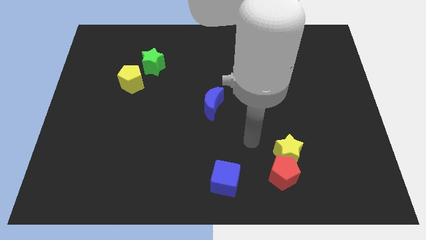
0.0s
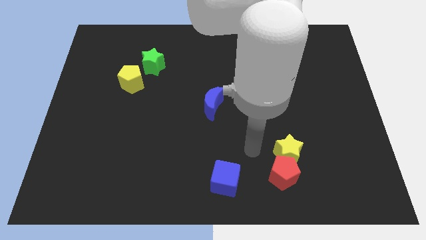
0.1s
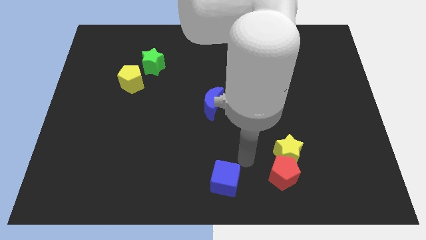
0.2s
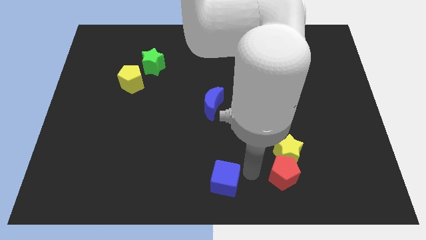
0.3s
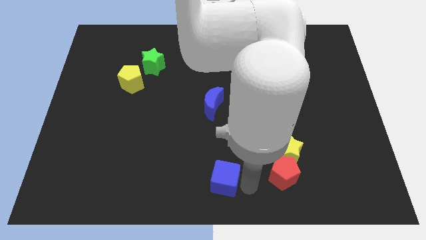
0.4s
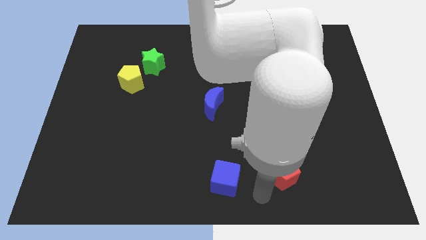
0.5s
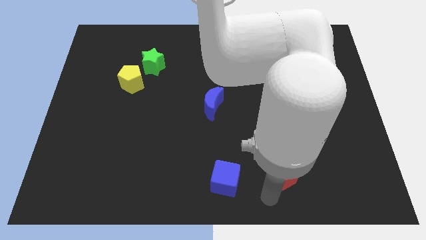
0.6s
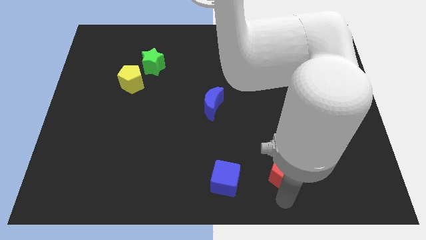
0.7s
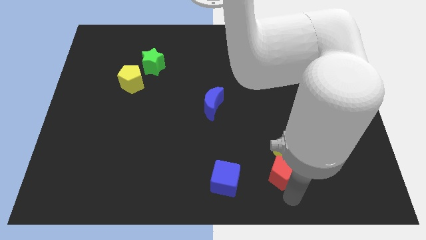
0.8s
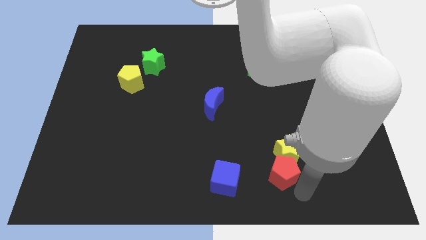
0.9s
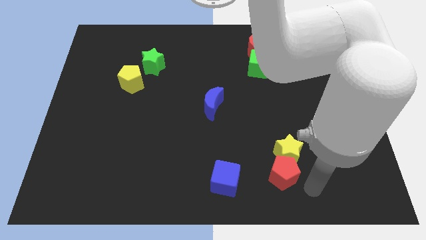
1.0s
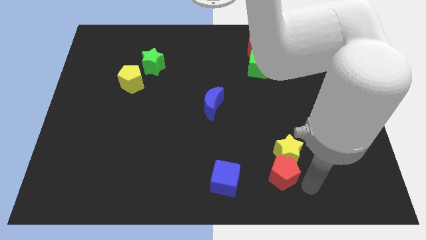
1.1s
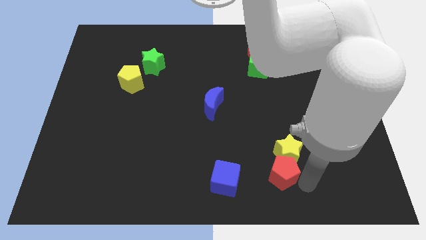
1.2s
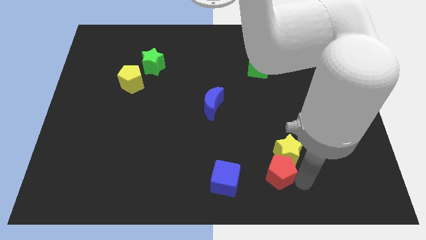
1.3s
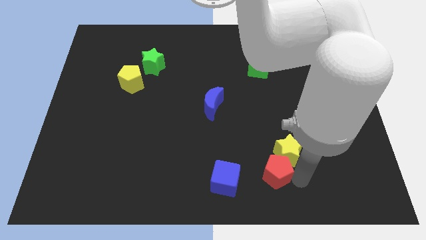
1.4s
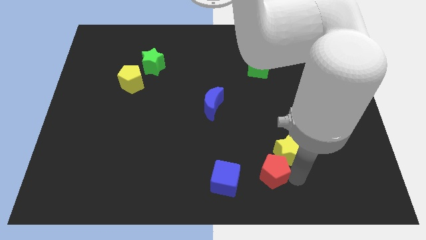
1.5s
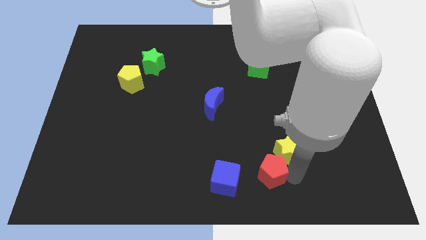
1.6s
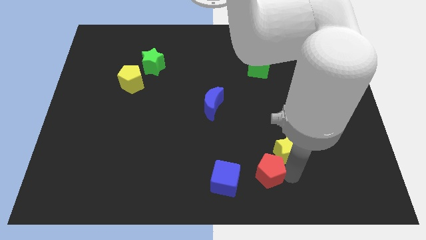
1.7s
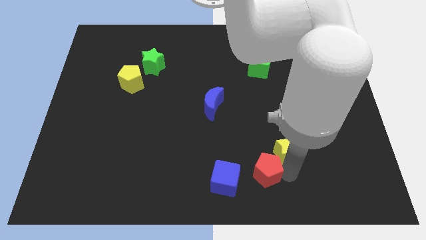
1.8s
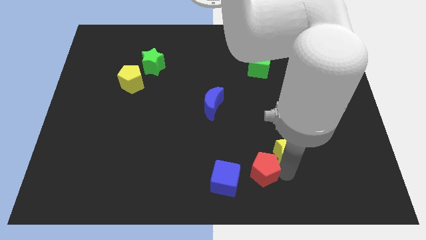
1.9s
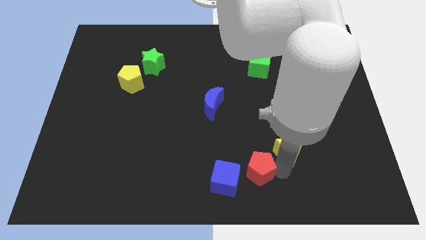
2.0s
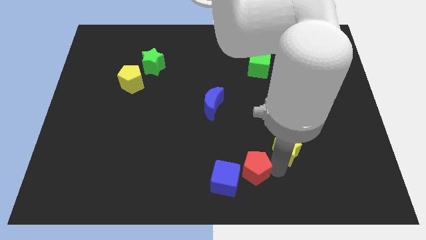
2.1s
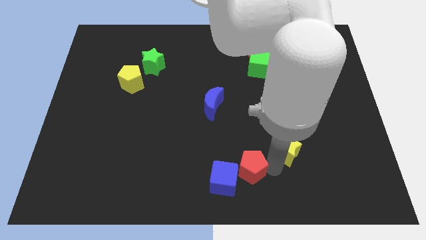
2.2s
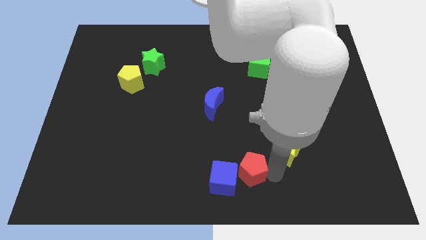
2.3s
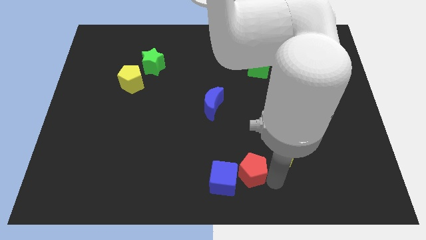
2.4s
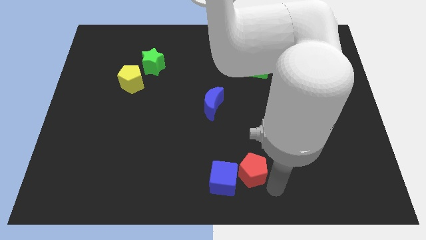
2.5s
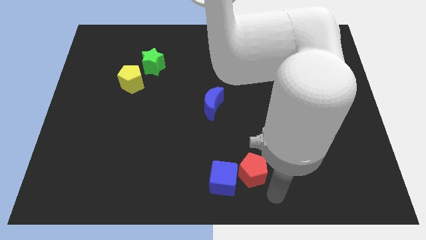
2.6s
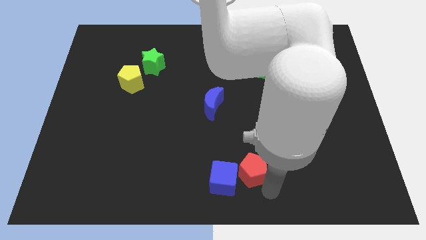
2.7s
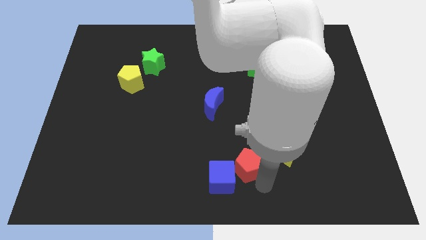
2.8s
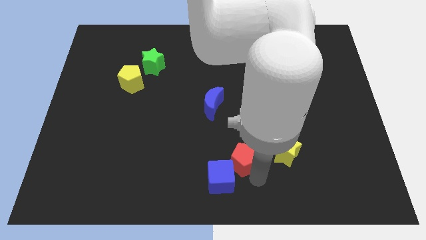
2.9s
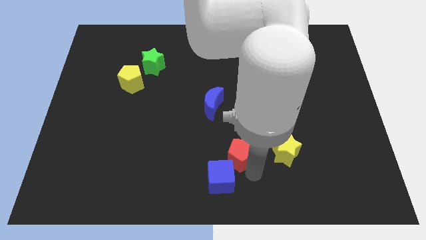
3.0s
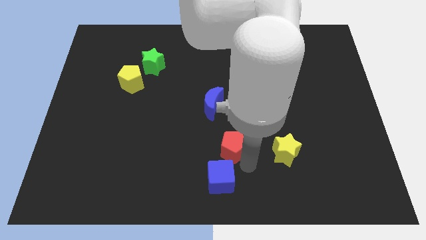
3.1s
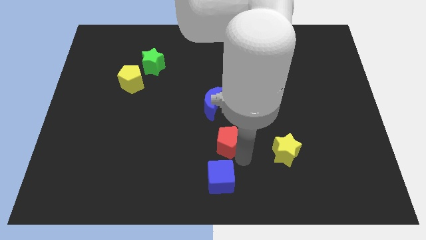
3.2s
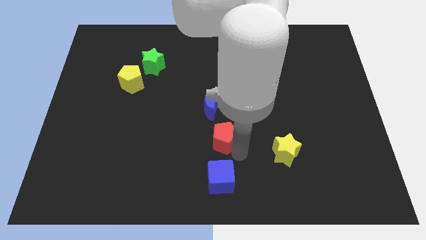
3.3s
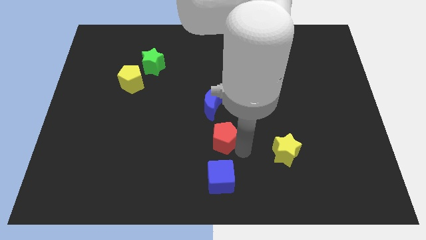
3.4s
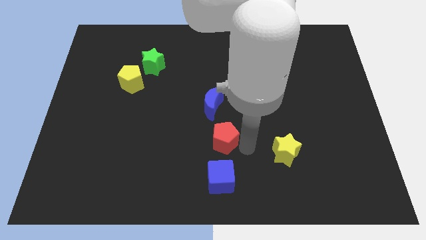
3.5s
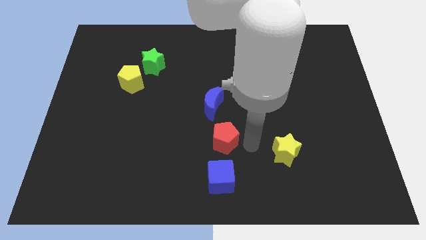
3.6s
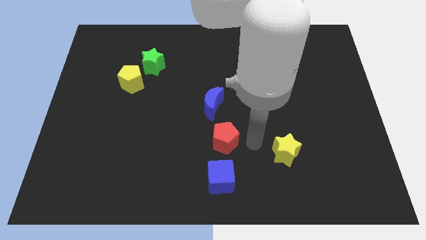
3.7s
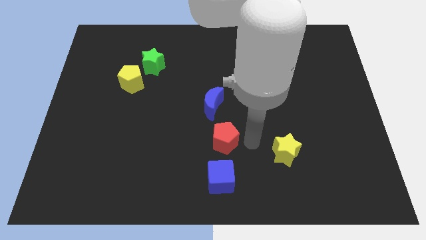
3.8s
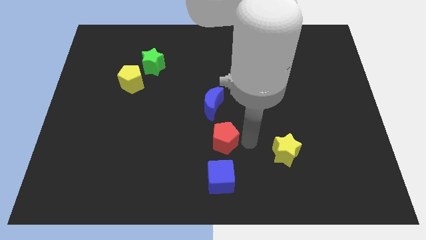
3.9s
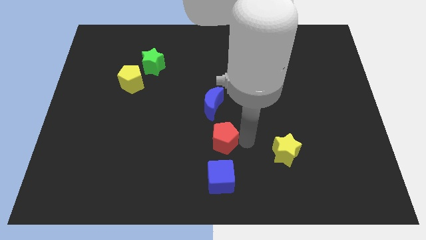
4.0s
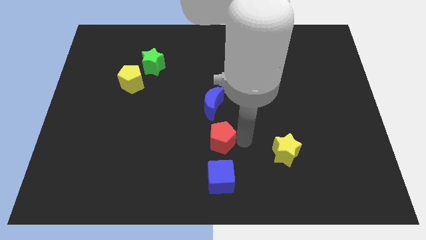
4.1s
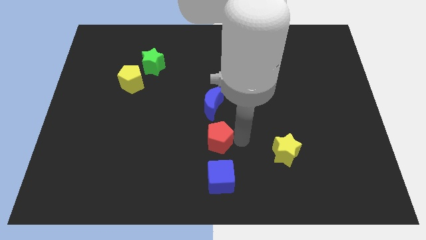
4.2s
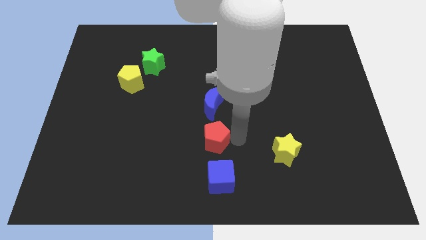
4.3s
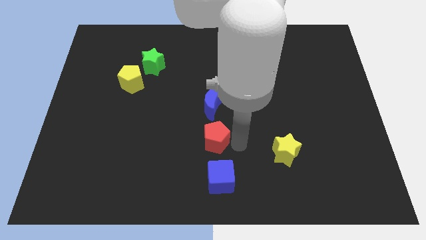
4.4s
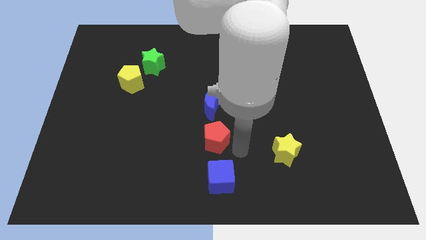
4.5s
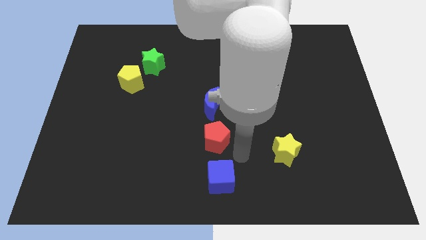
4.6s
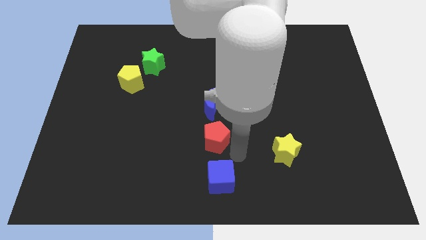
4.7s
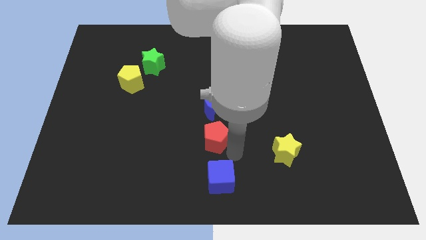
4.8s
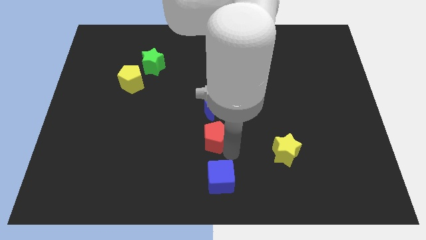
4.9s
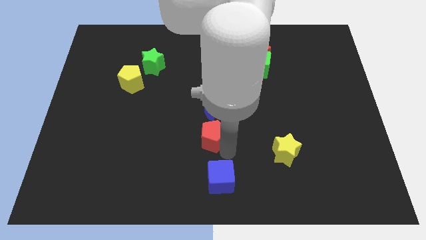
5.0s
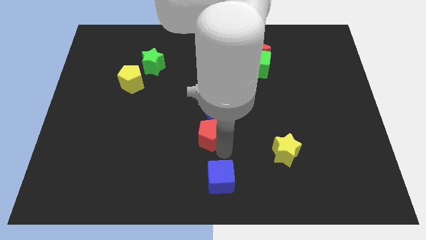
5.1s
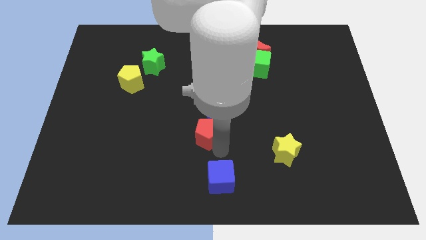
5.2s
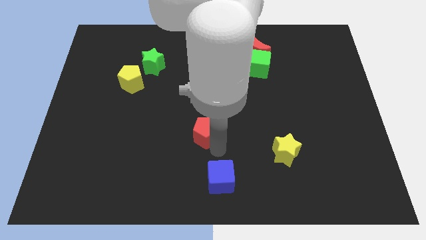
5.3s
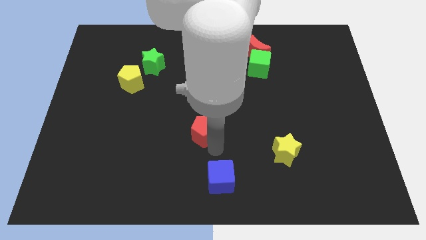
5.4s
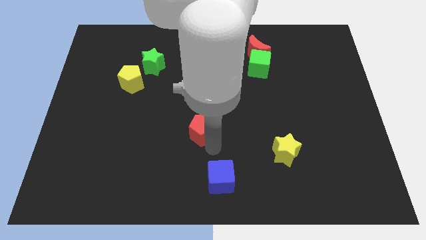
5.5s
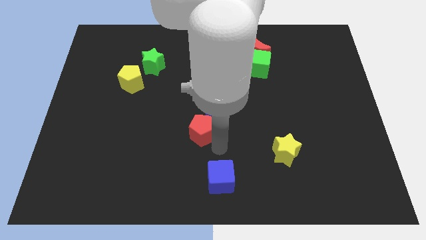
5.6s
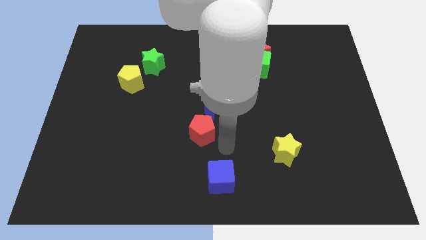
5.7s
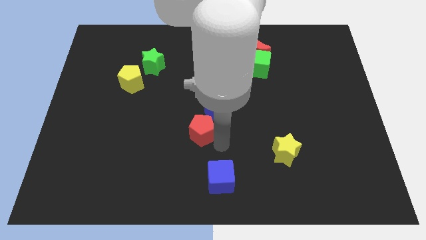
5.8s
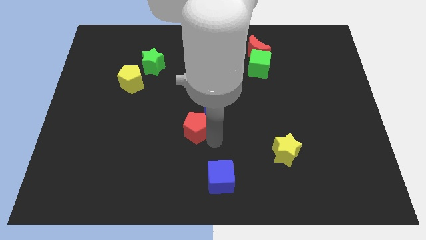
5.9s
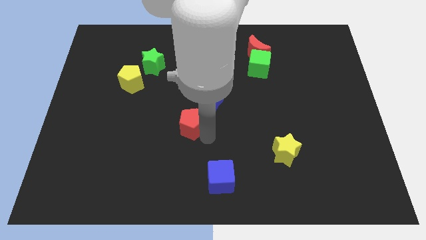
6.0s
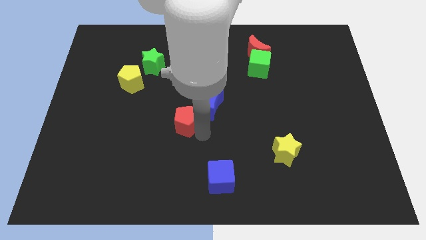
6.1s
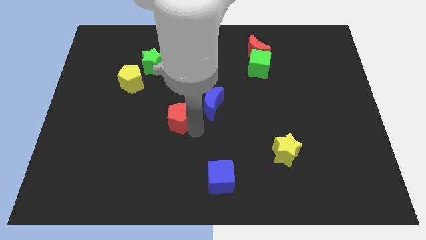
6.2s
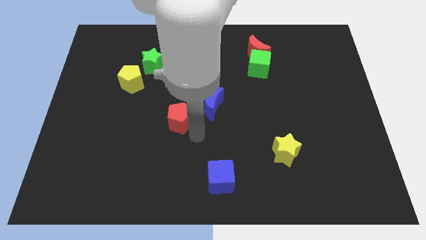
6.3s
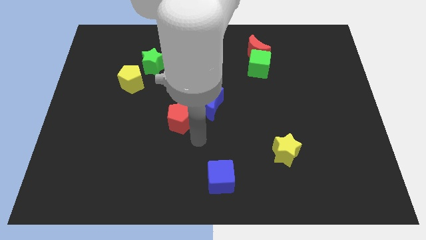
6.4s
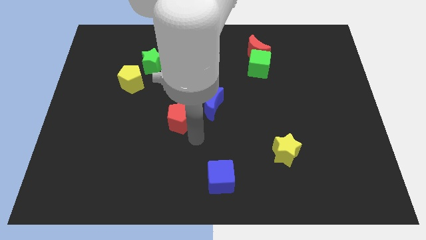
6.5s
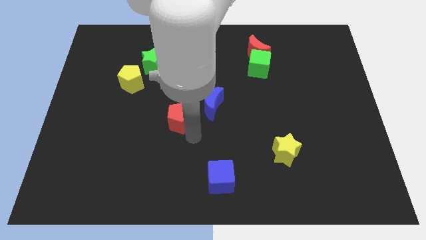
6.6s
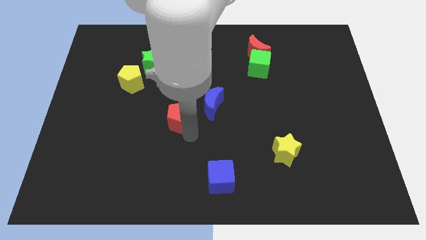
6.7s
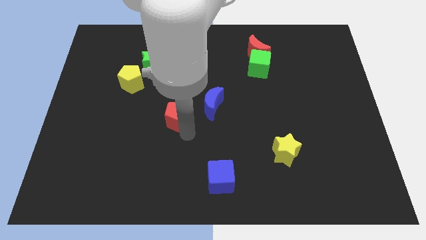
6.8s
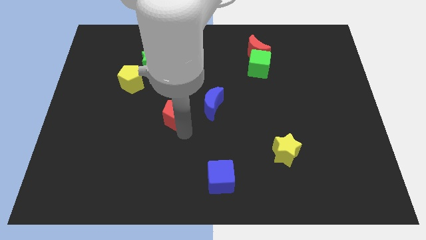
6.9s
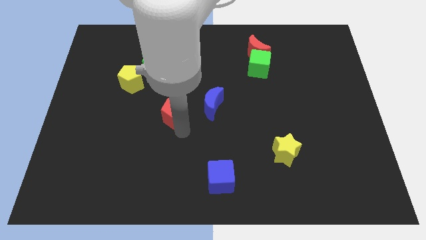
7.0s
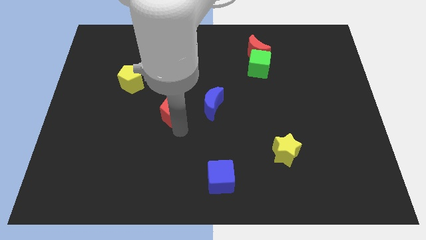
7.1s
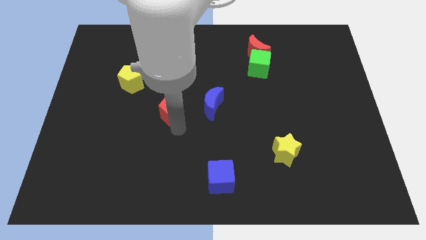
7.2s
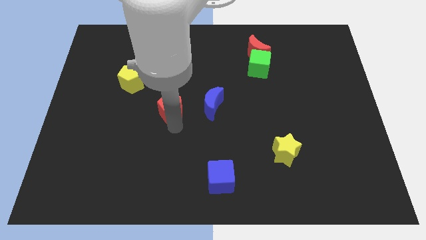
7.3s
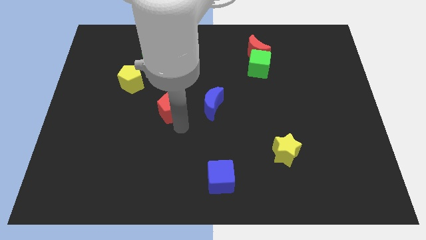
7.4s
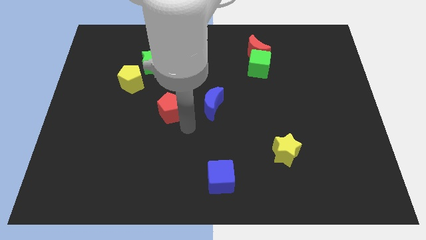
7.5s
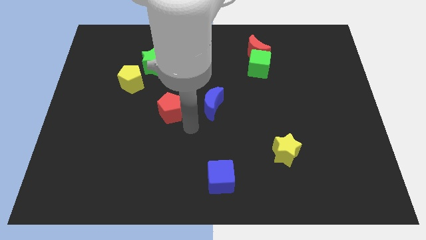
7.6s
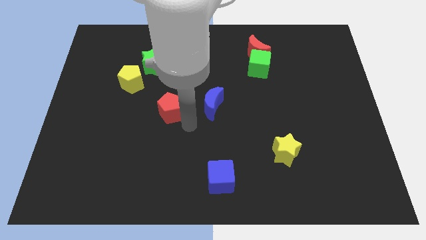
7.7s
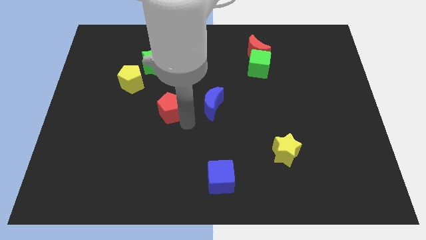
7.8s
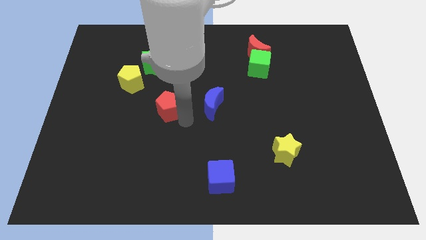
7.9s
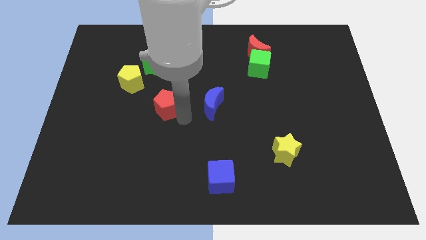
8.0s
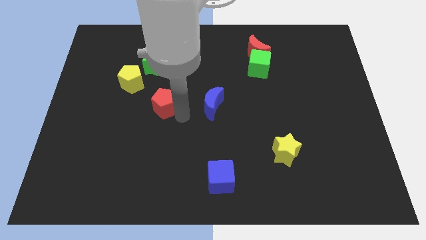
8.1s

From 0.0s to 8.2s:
push the red pentagon below the green star
